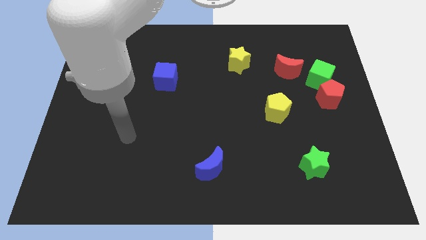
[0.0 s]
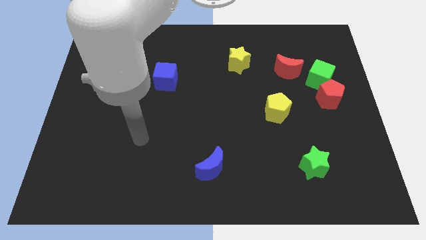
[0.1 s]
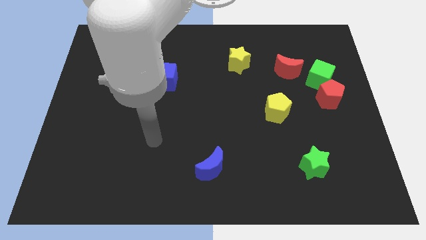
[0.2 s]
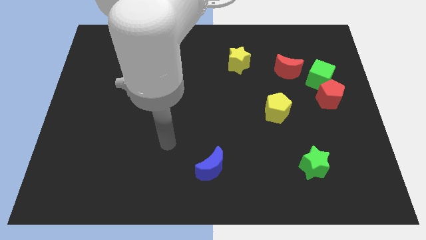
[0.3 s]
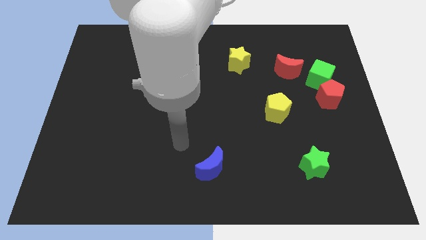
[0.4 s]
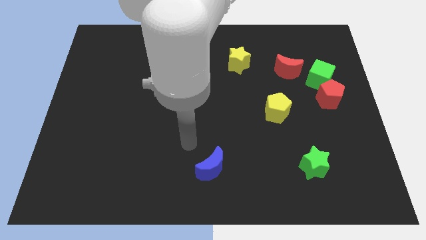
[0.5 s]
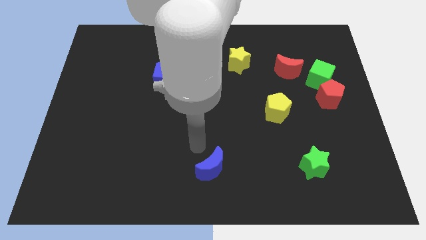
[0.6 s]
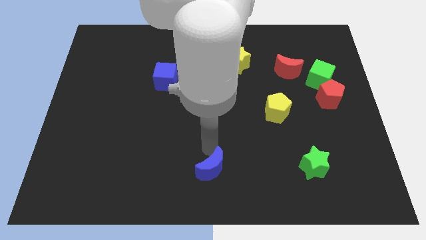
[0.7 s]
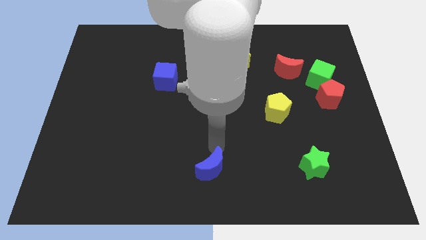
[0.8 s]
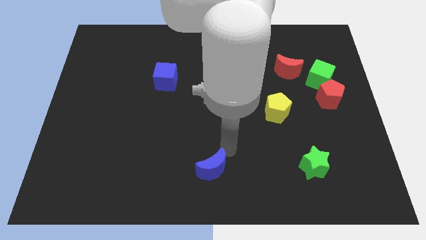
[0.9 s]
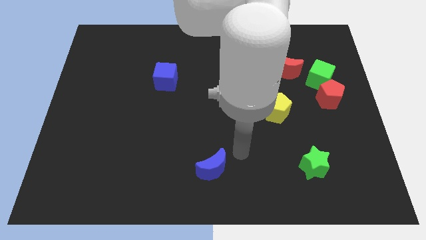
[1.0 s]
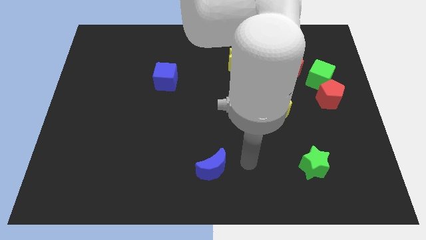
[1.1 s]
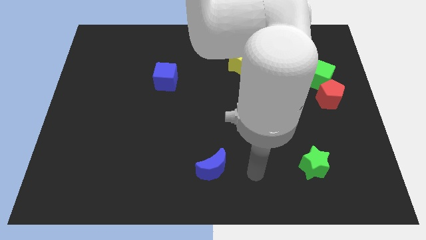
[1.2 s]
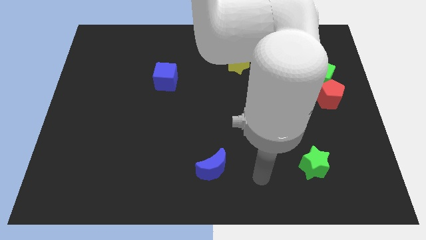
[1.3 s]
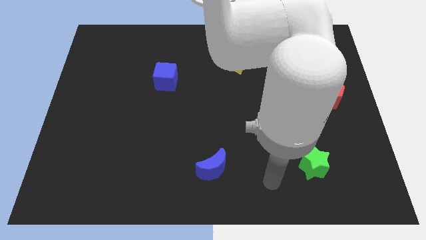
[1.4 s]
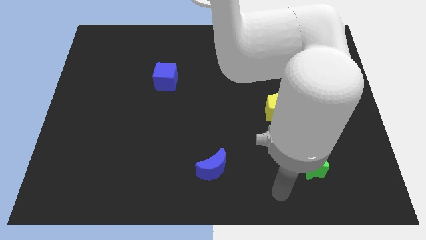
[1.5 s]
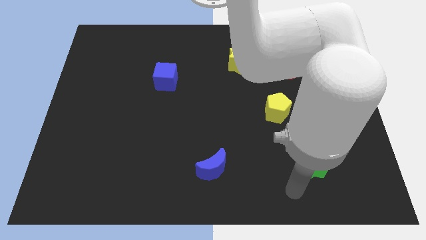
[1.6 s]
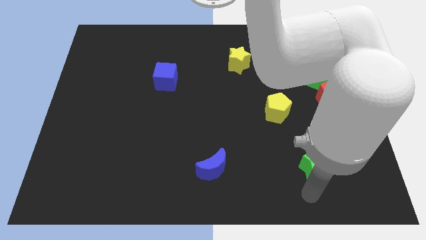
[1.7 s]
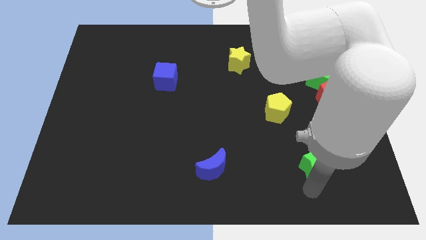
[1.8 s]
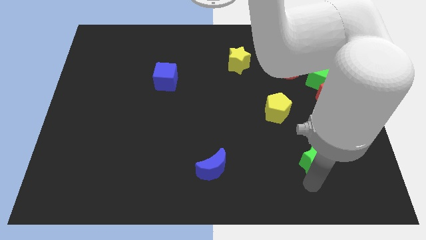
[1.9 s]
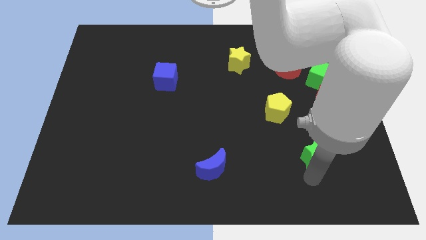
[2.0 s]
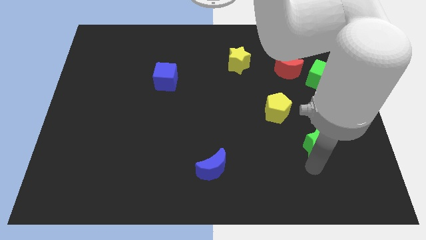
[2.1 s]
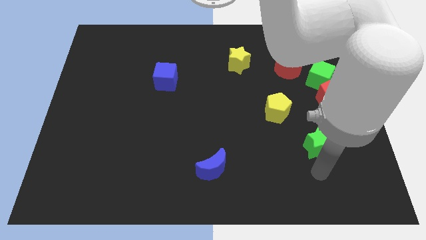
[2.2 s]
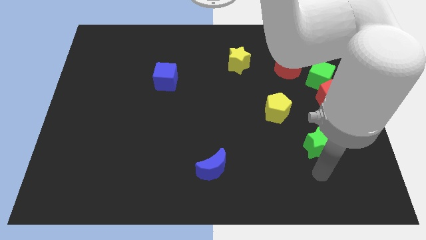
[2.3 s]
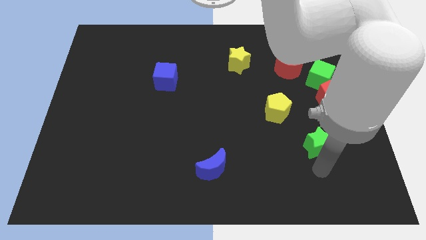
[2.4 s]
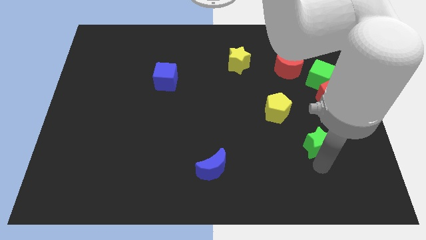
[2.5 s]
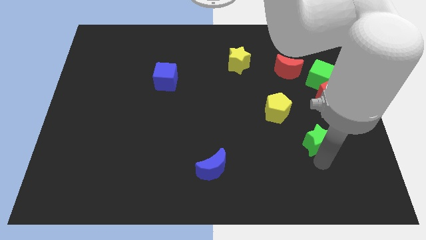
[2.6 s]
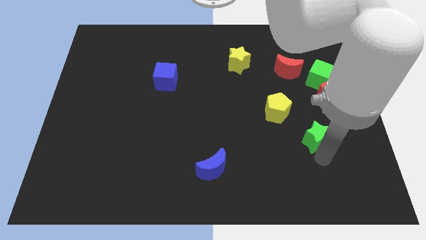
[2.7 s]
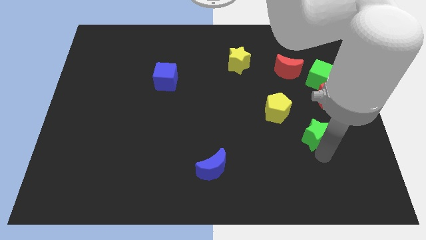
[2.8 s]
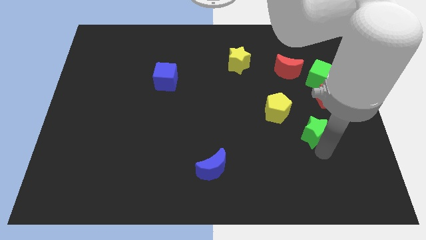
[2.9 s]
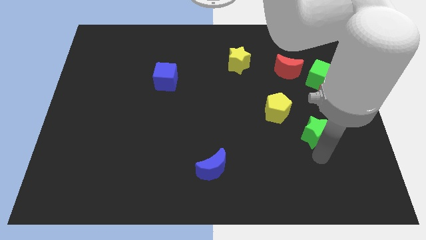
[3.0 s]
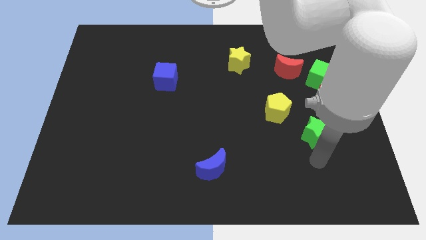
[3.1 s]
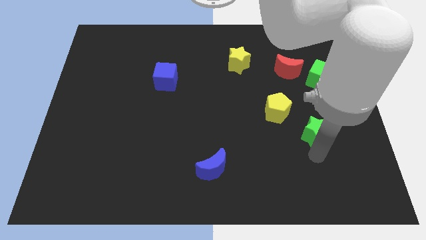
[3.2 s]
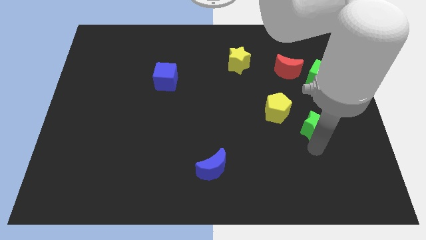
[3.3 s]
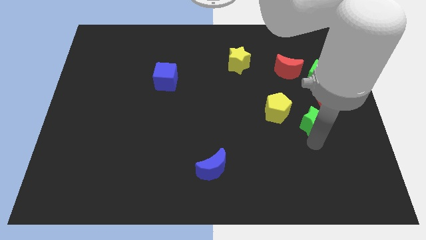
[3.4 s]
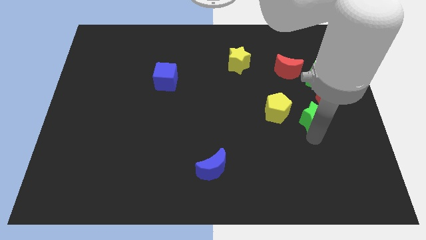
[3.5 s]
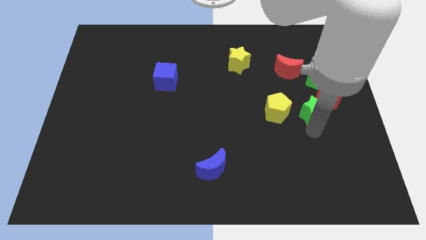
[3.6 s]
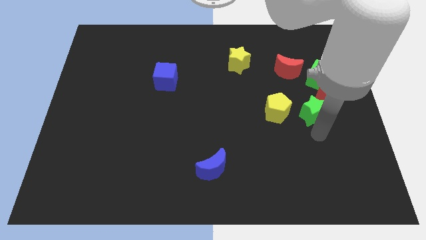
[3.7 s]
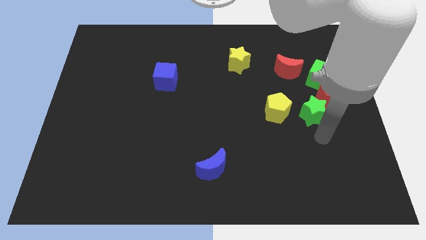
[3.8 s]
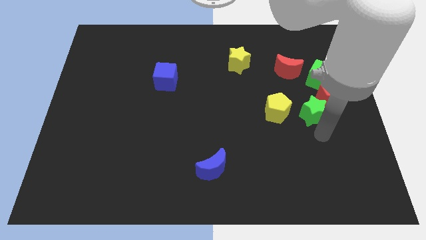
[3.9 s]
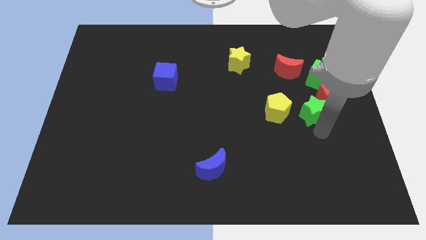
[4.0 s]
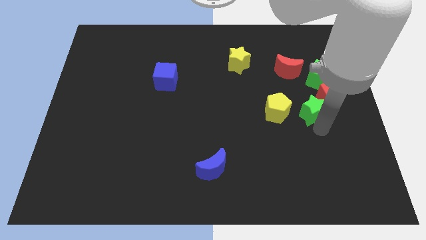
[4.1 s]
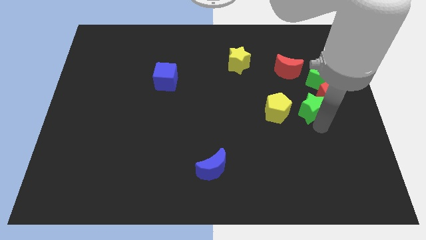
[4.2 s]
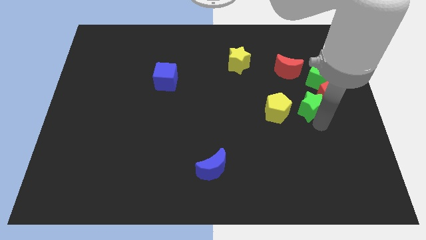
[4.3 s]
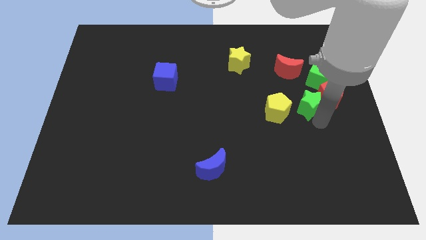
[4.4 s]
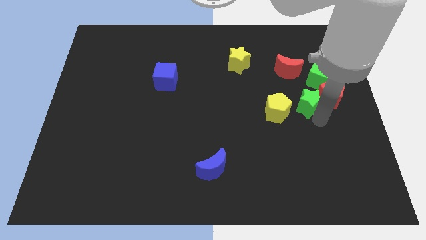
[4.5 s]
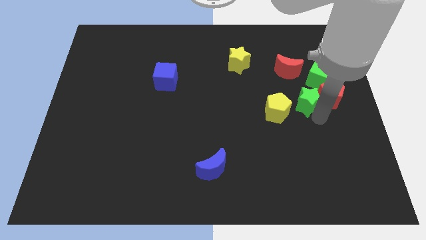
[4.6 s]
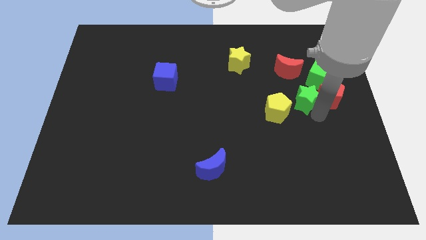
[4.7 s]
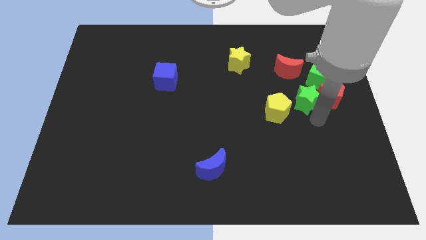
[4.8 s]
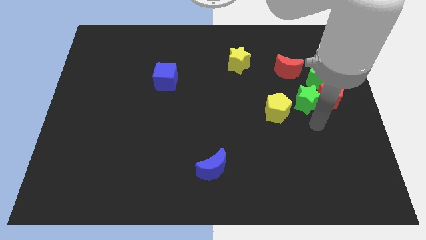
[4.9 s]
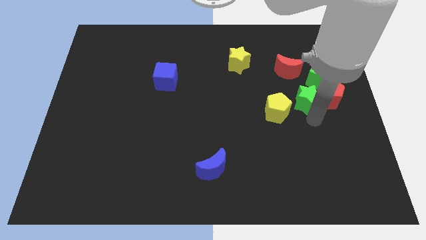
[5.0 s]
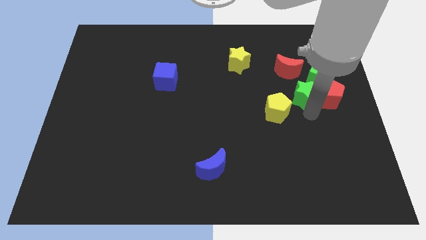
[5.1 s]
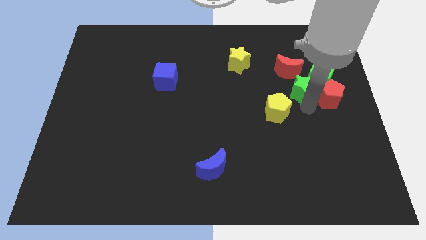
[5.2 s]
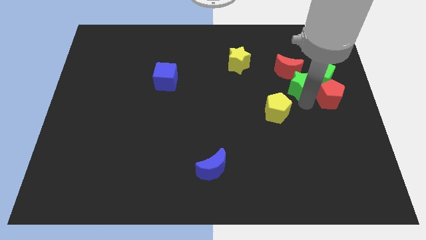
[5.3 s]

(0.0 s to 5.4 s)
put the green star close to the red moon

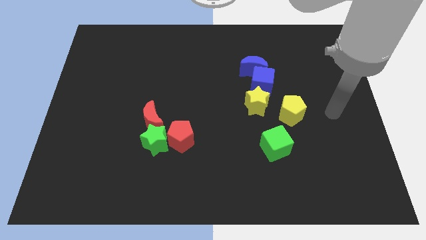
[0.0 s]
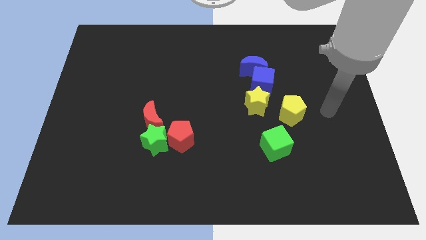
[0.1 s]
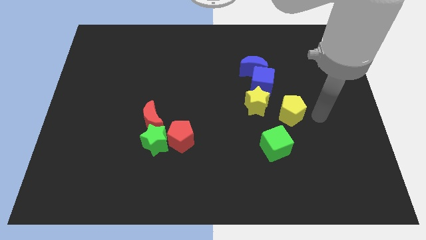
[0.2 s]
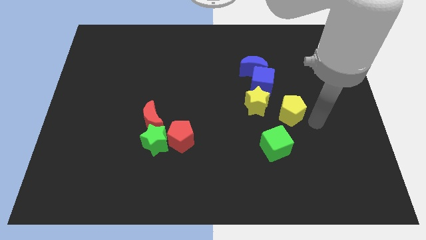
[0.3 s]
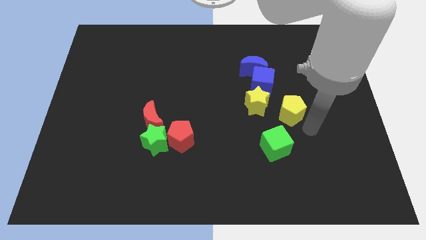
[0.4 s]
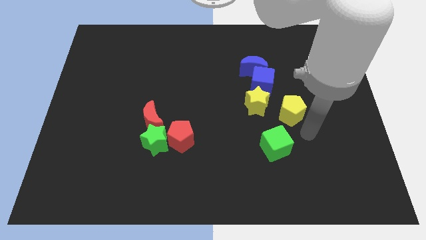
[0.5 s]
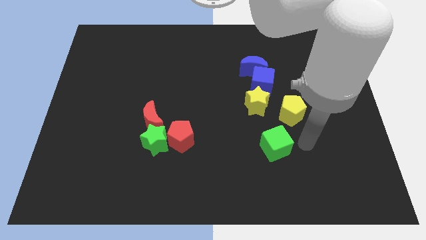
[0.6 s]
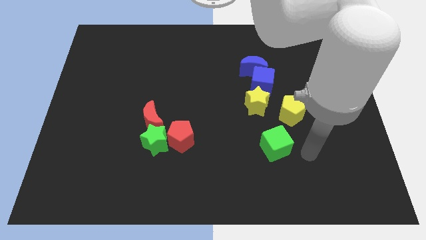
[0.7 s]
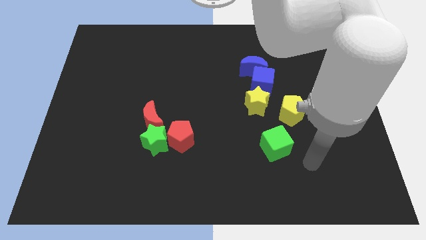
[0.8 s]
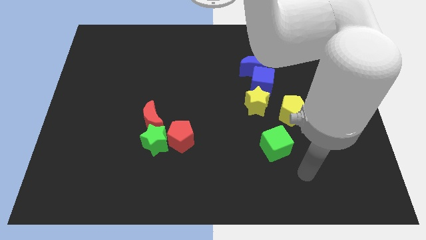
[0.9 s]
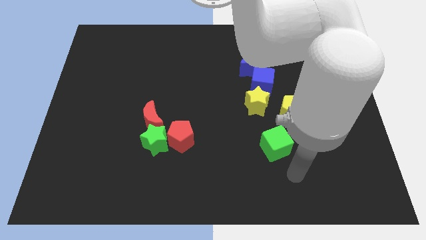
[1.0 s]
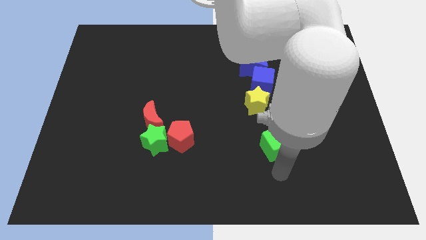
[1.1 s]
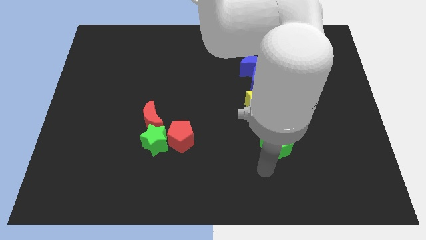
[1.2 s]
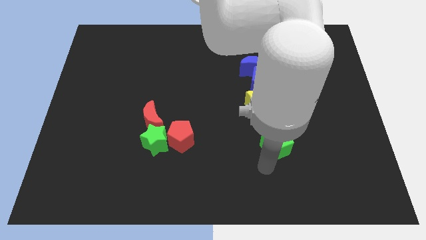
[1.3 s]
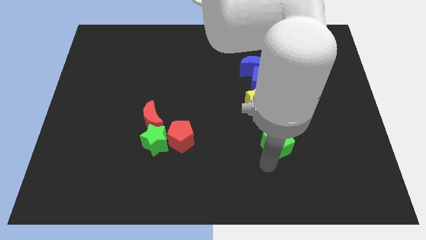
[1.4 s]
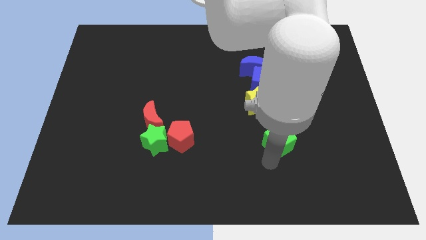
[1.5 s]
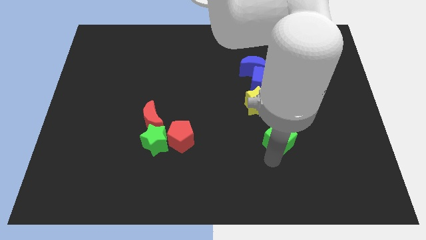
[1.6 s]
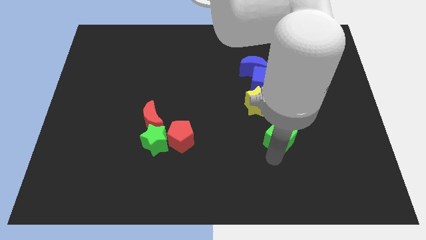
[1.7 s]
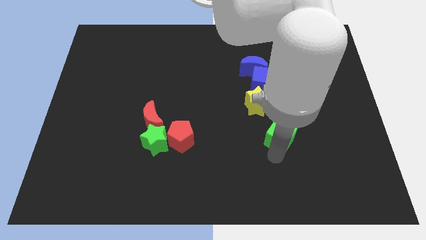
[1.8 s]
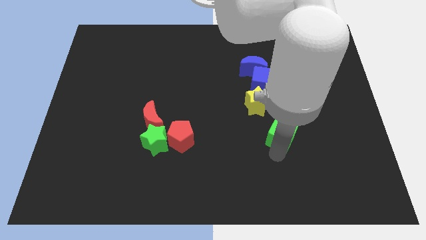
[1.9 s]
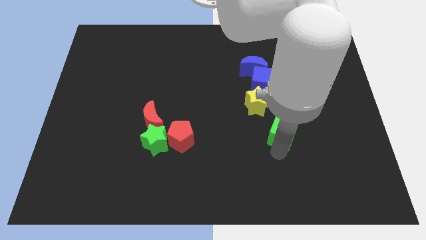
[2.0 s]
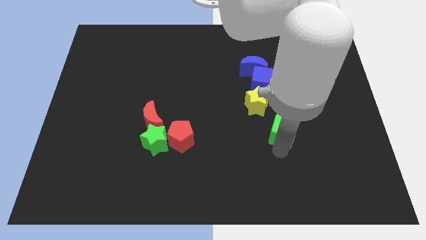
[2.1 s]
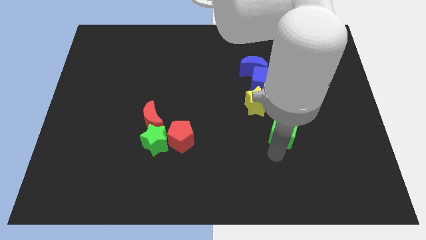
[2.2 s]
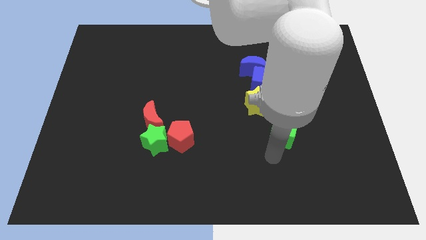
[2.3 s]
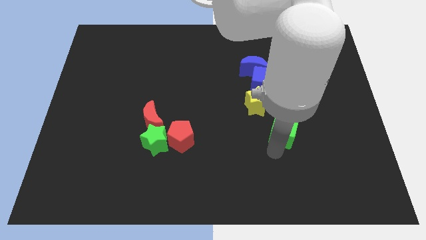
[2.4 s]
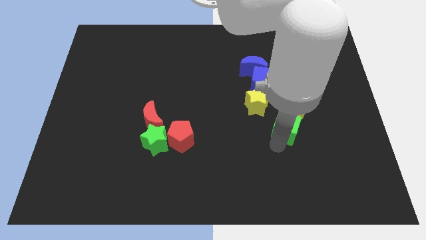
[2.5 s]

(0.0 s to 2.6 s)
put the green cube to the yellow pentagon
